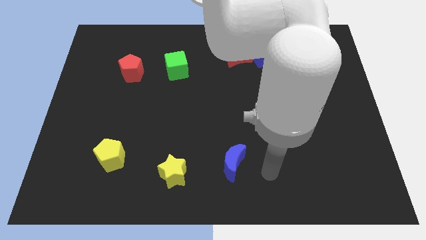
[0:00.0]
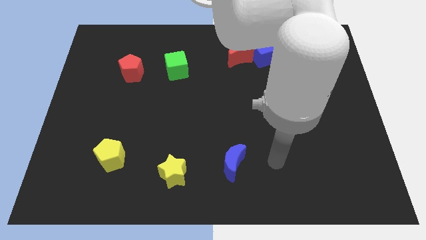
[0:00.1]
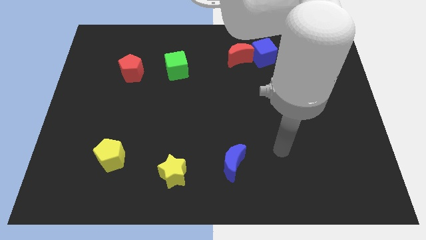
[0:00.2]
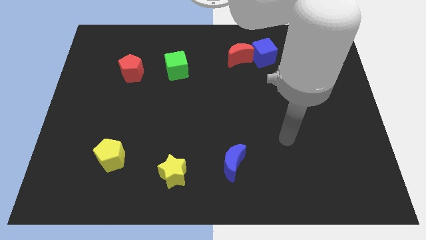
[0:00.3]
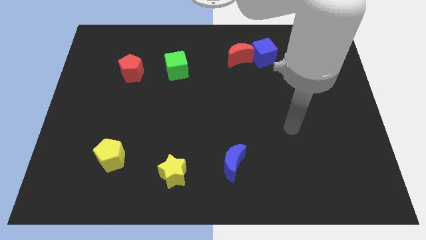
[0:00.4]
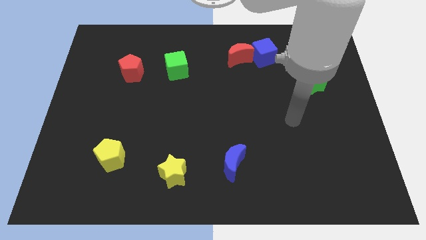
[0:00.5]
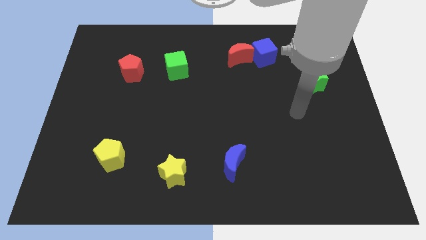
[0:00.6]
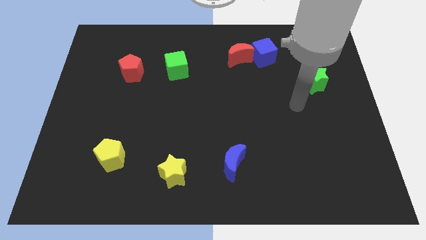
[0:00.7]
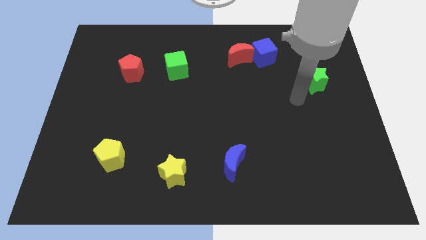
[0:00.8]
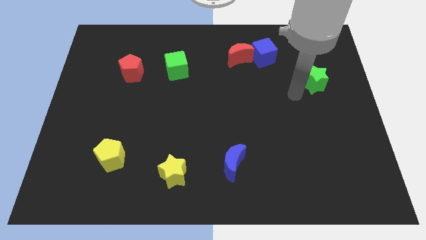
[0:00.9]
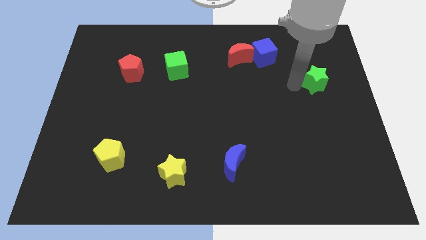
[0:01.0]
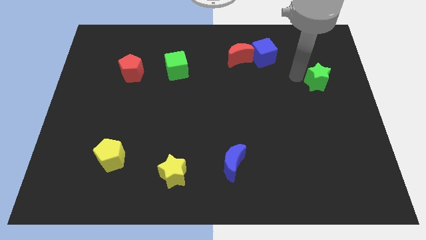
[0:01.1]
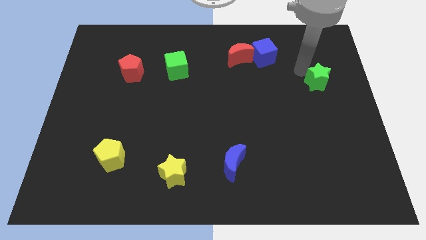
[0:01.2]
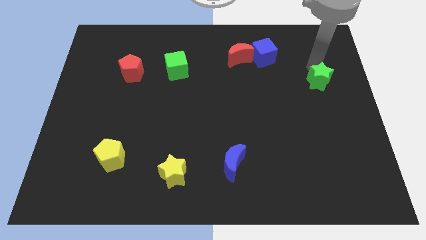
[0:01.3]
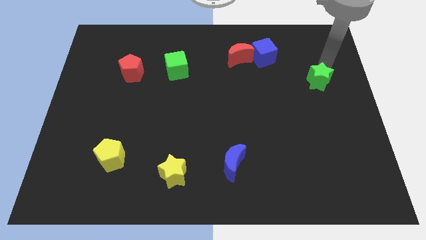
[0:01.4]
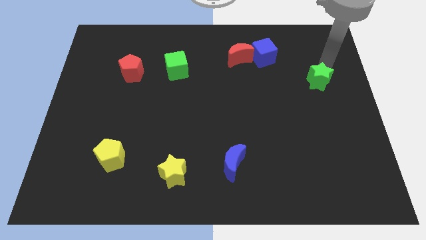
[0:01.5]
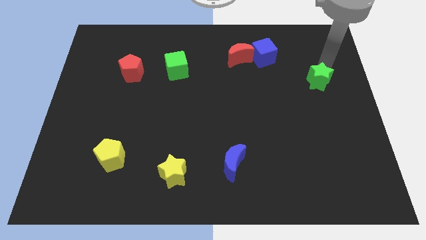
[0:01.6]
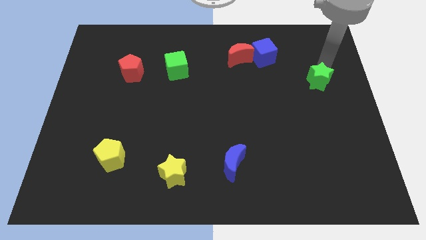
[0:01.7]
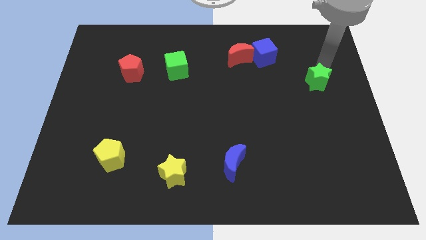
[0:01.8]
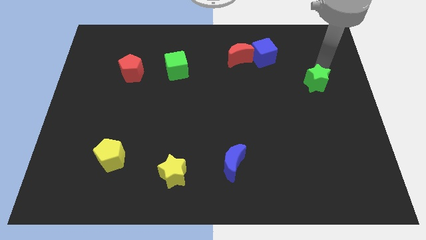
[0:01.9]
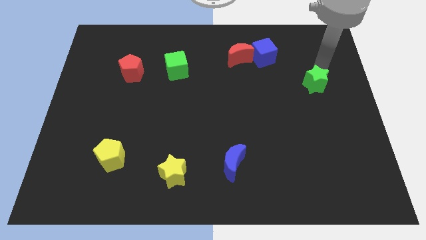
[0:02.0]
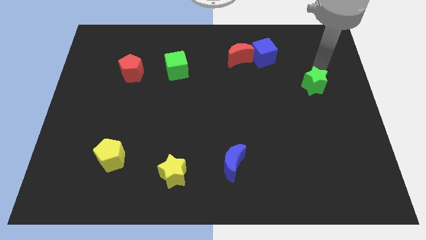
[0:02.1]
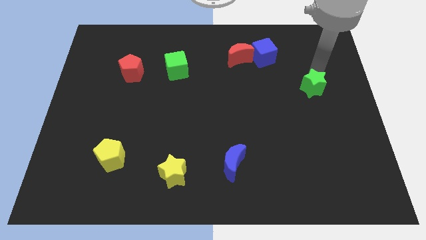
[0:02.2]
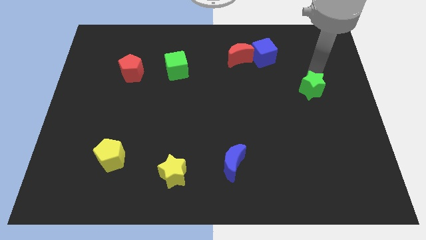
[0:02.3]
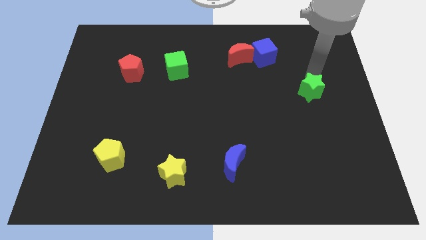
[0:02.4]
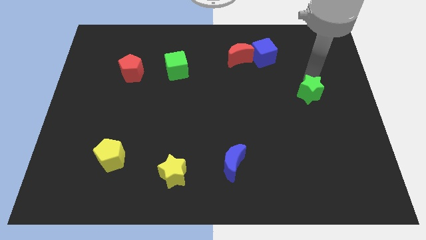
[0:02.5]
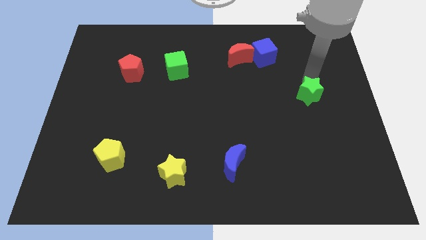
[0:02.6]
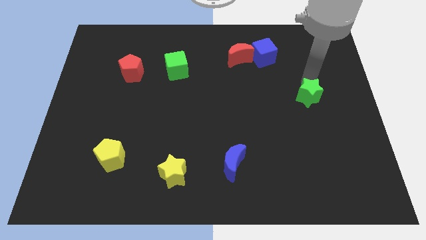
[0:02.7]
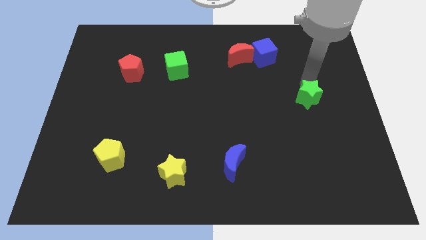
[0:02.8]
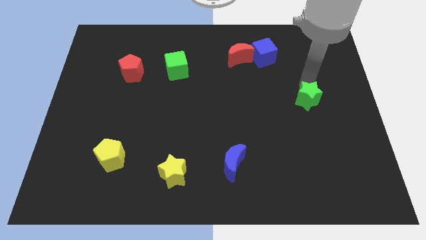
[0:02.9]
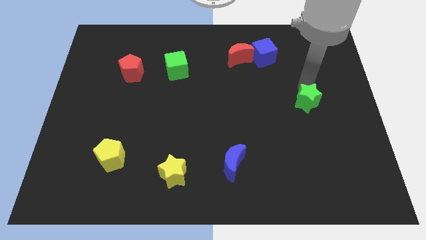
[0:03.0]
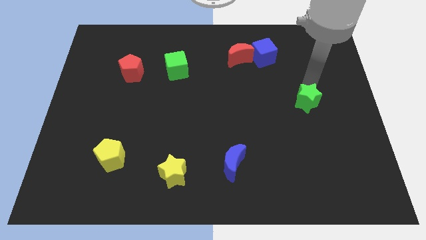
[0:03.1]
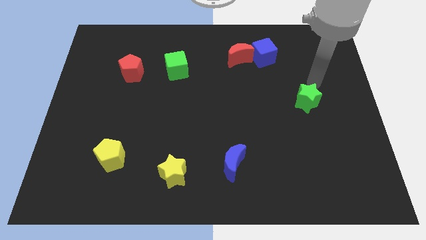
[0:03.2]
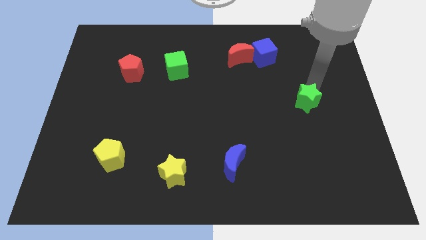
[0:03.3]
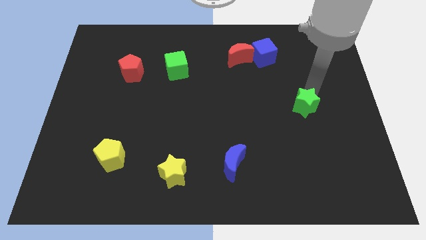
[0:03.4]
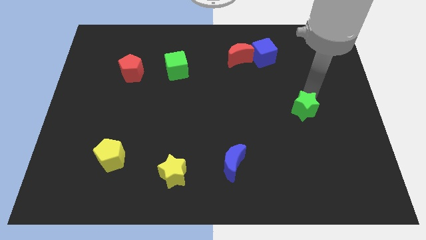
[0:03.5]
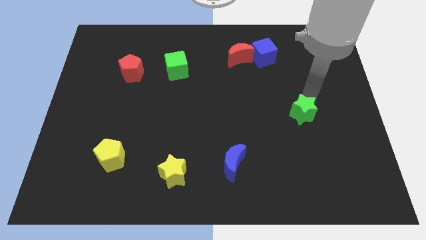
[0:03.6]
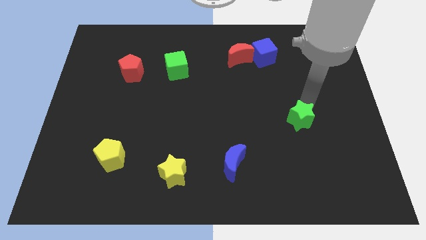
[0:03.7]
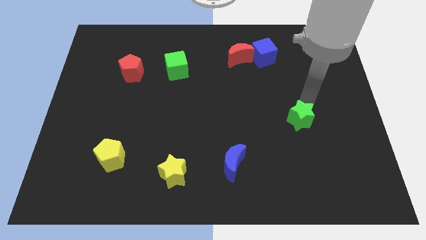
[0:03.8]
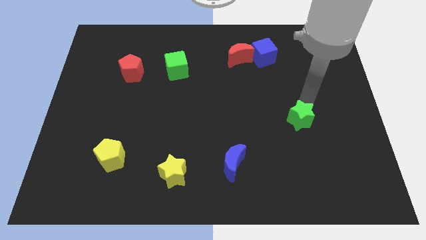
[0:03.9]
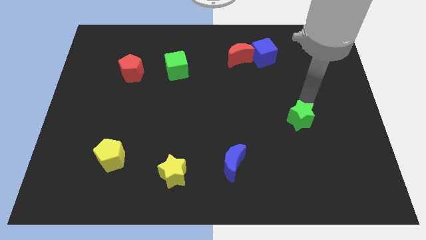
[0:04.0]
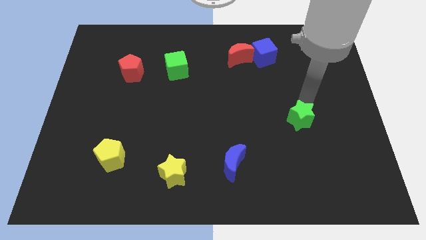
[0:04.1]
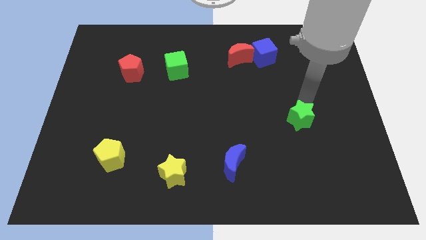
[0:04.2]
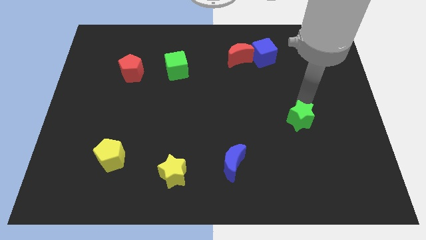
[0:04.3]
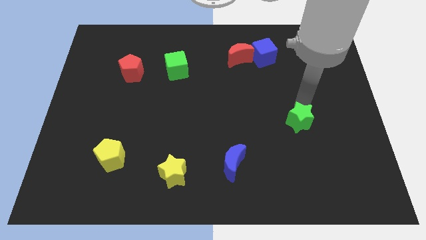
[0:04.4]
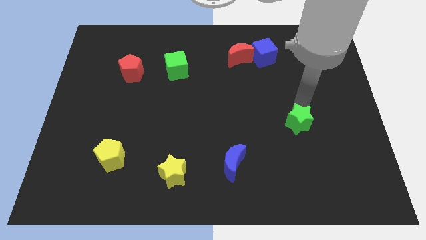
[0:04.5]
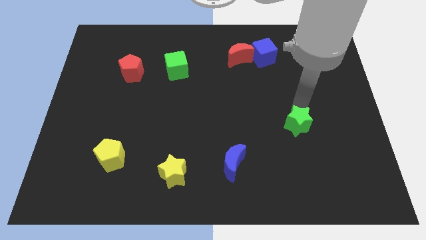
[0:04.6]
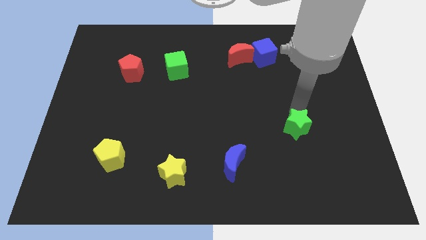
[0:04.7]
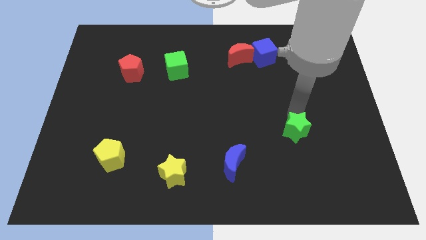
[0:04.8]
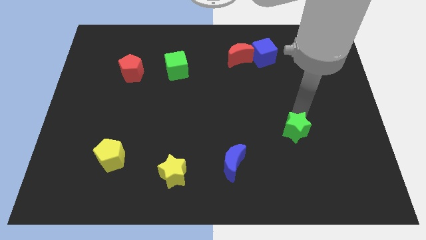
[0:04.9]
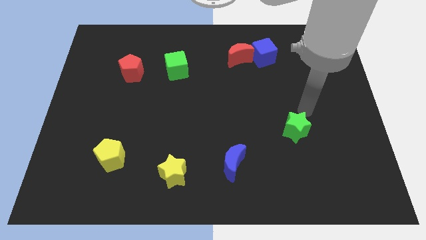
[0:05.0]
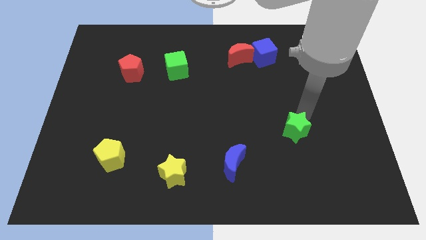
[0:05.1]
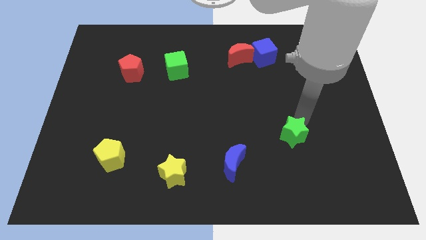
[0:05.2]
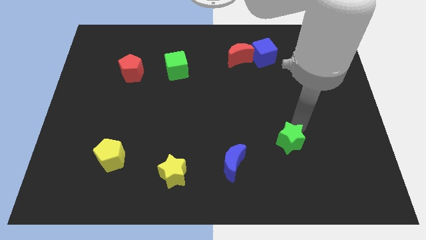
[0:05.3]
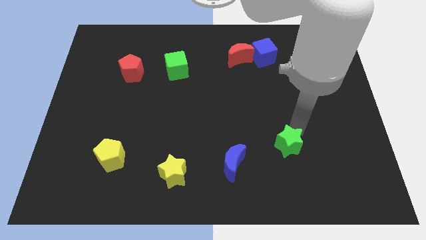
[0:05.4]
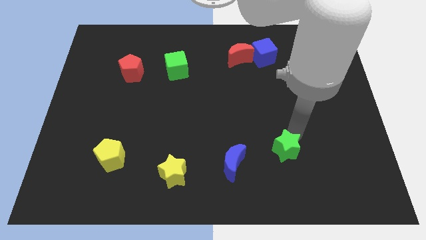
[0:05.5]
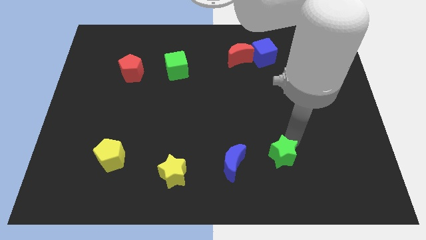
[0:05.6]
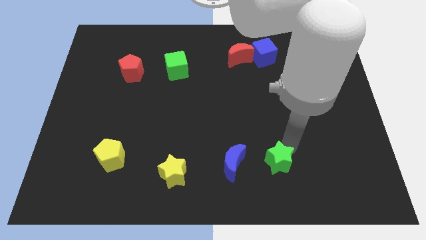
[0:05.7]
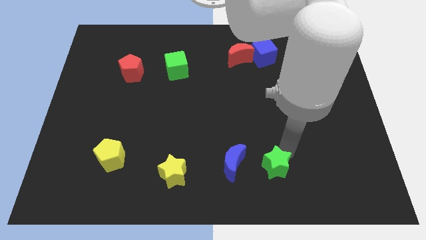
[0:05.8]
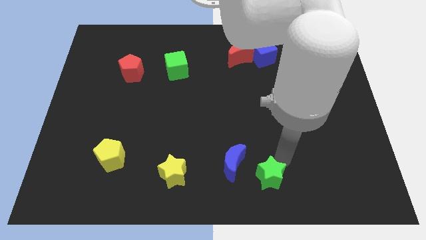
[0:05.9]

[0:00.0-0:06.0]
slide the green star to the bottom side

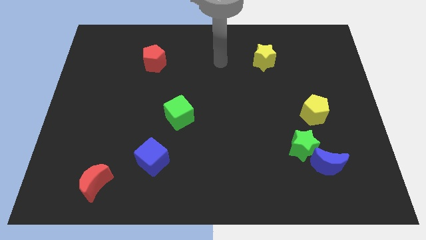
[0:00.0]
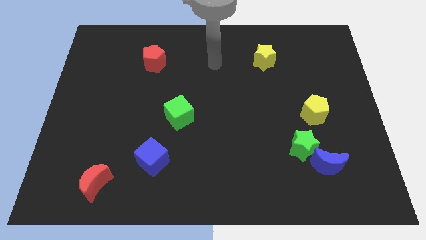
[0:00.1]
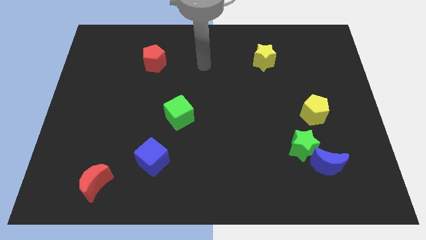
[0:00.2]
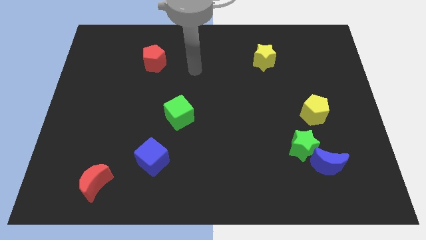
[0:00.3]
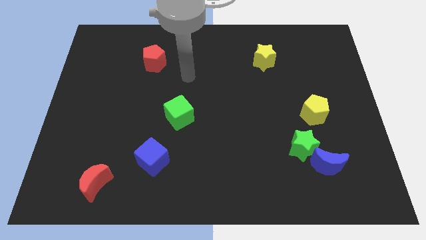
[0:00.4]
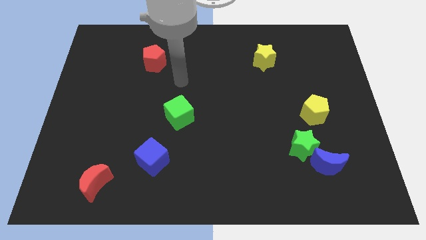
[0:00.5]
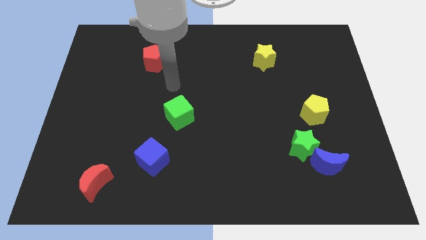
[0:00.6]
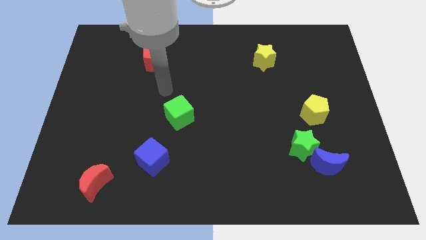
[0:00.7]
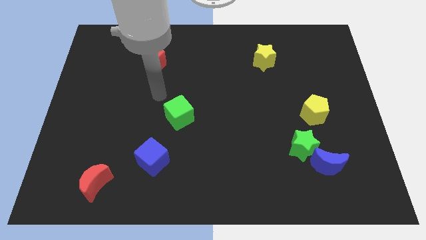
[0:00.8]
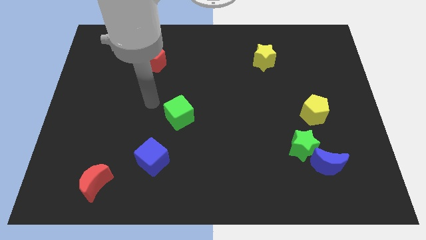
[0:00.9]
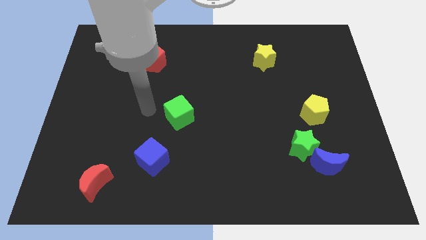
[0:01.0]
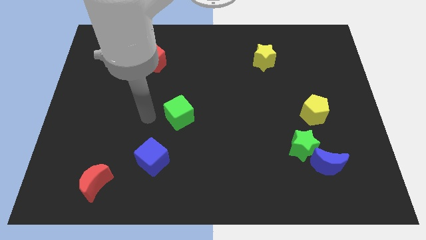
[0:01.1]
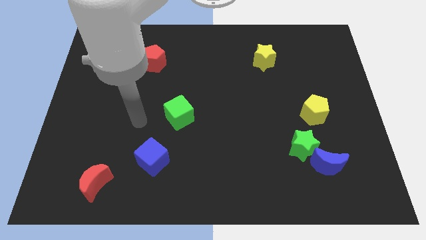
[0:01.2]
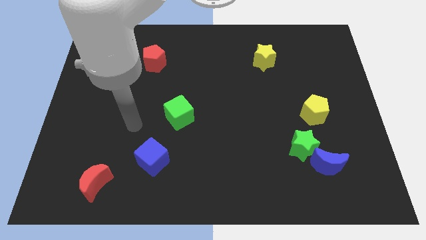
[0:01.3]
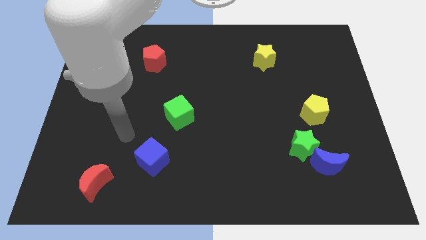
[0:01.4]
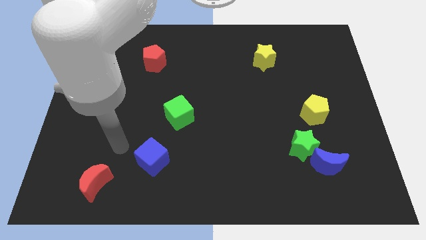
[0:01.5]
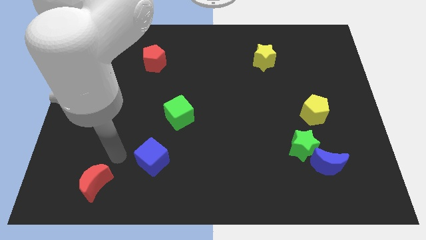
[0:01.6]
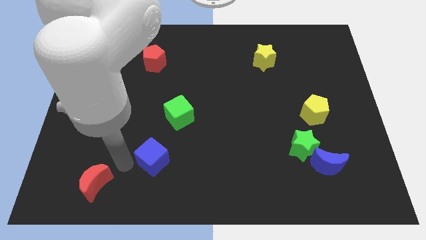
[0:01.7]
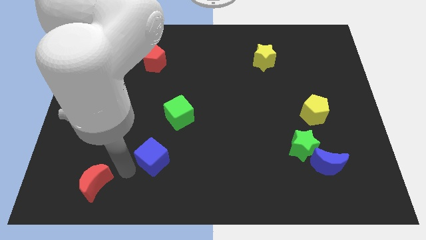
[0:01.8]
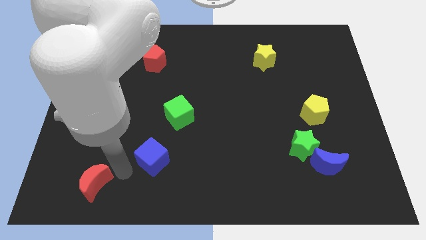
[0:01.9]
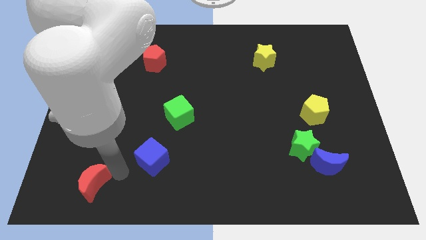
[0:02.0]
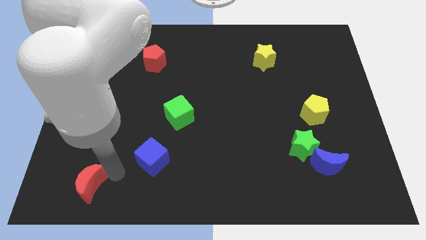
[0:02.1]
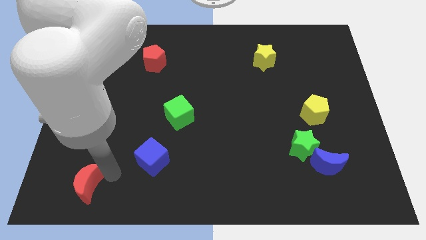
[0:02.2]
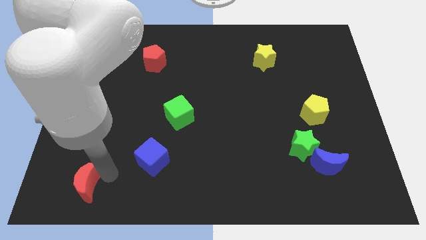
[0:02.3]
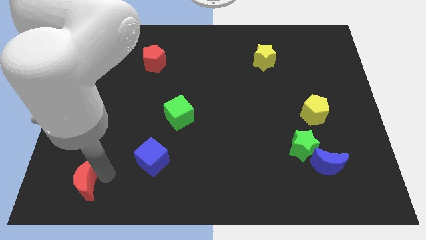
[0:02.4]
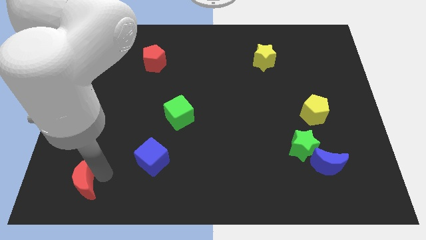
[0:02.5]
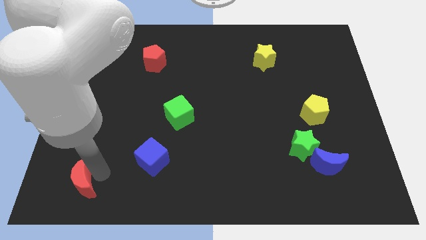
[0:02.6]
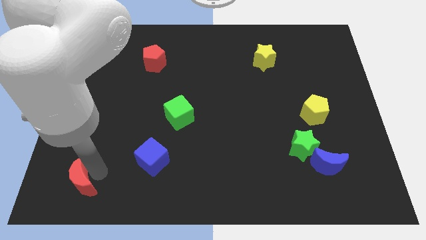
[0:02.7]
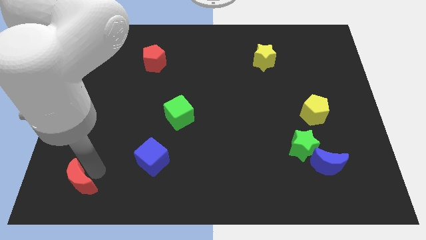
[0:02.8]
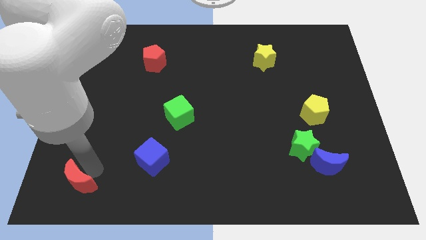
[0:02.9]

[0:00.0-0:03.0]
move the red moon to the lower left corner
